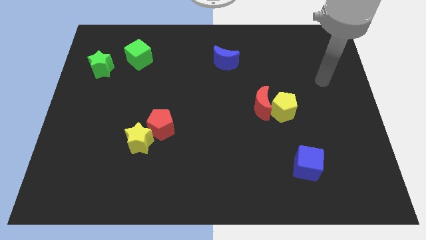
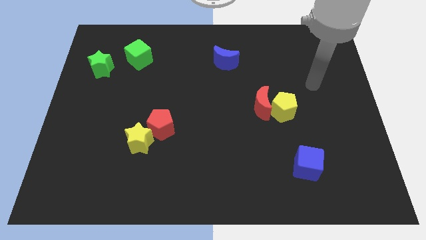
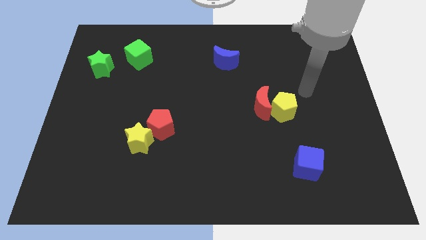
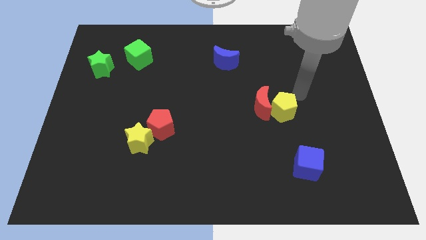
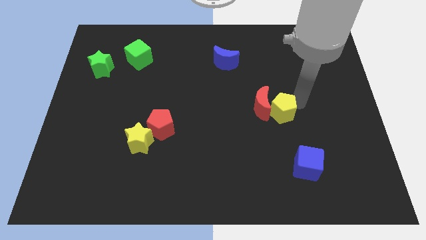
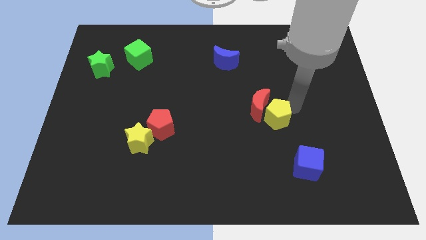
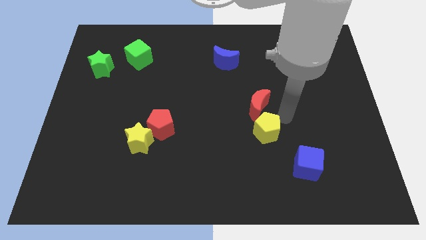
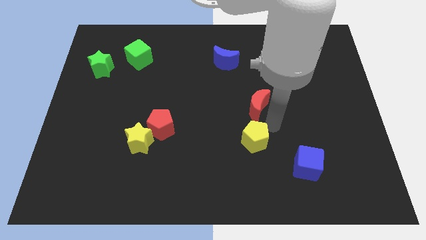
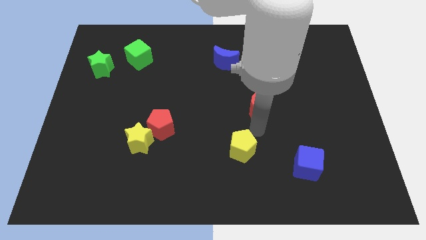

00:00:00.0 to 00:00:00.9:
move the red moon away from the yellow pentagon

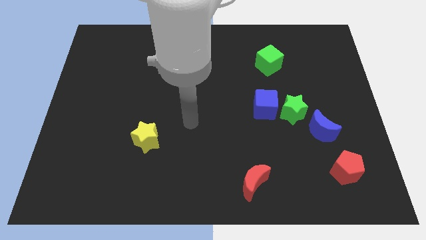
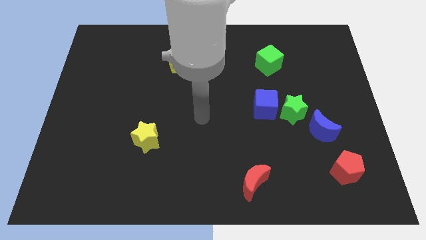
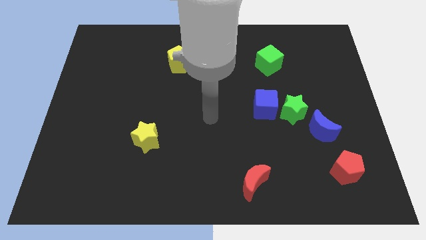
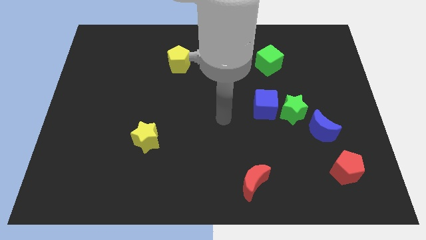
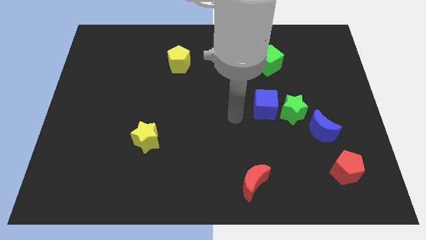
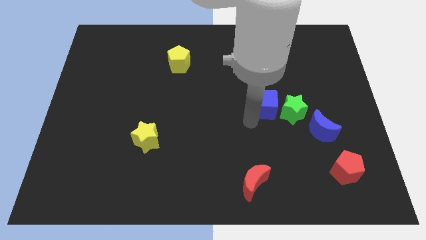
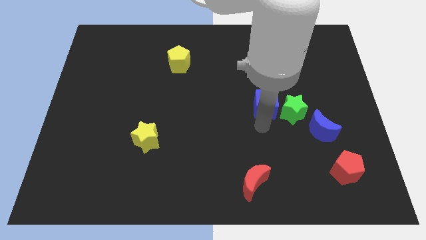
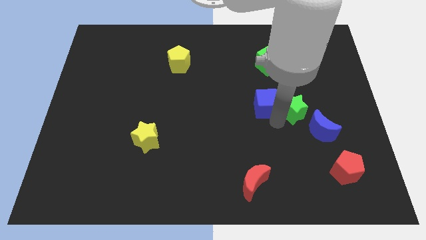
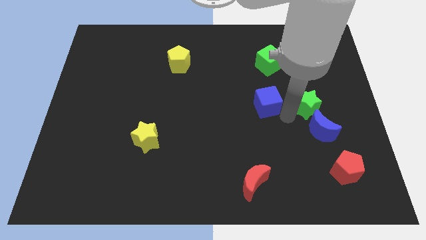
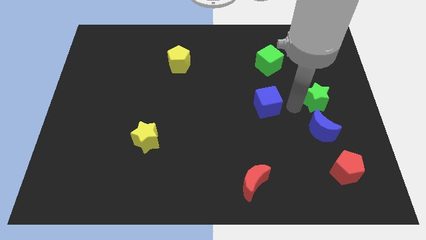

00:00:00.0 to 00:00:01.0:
move the blue cube away from the green star

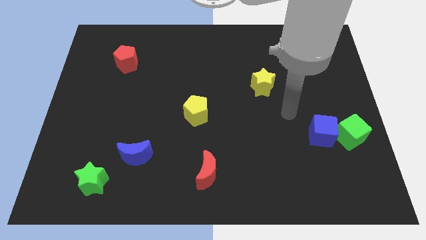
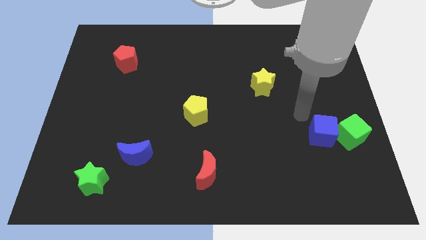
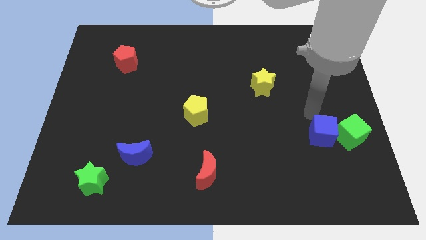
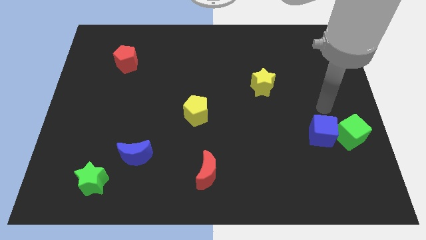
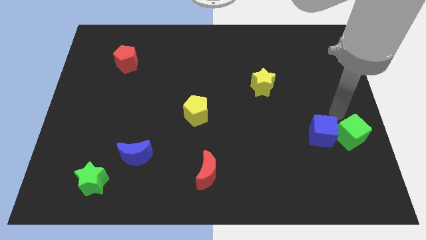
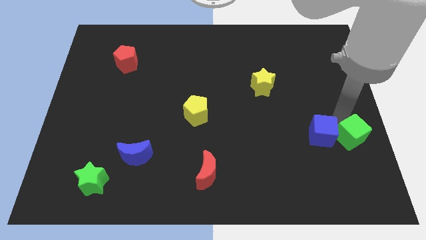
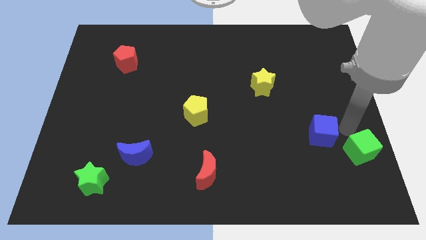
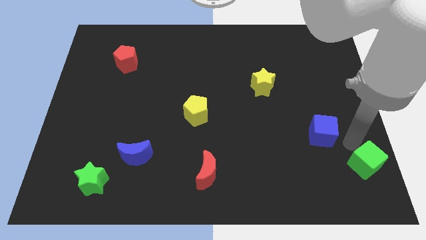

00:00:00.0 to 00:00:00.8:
separate the blue cube from the green cube

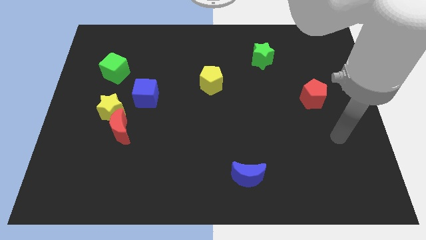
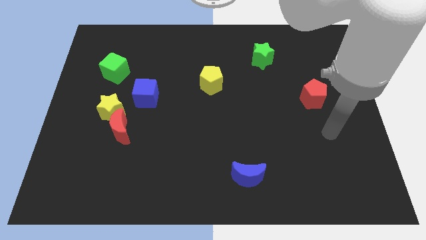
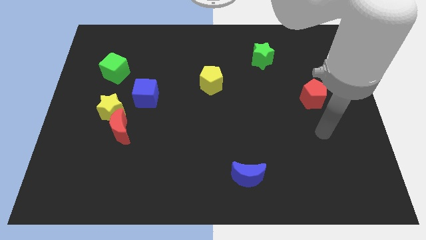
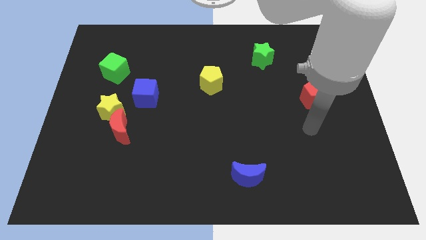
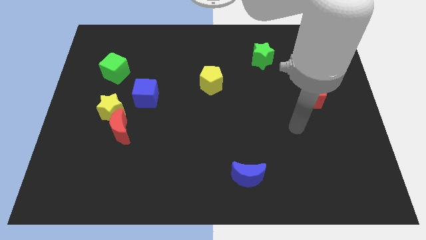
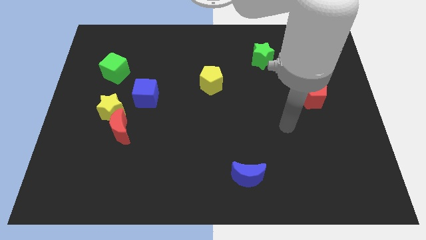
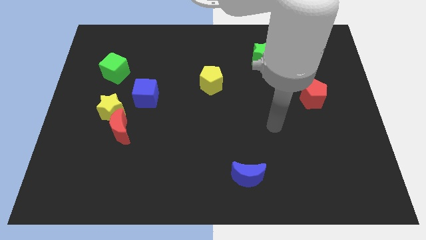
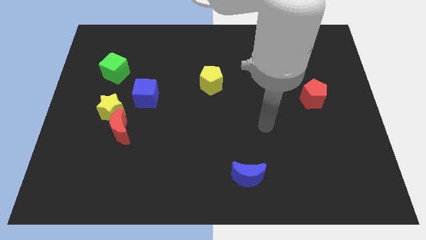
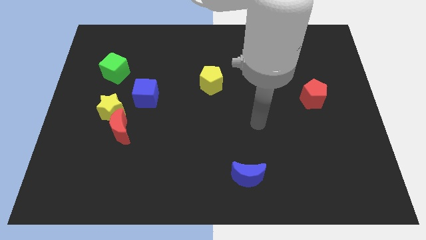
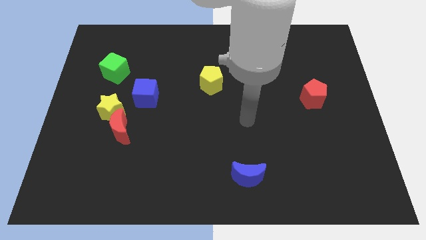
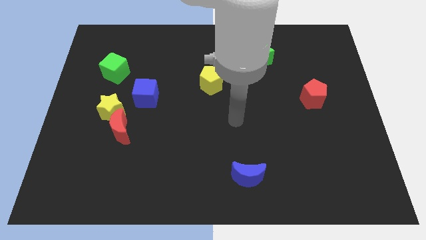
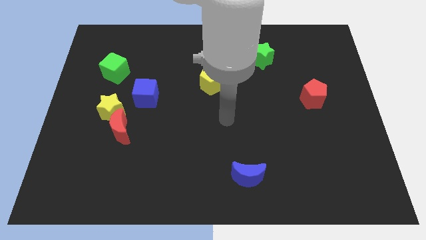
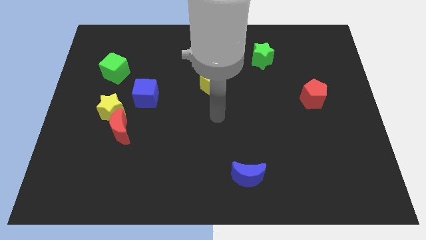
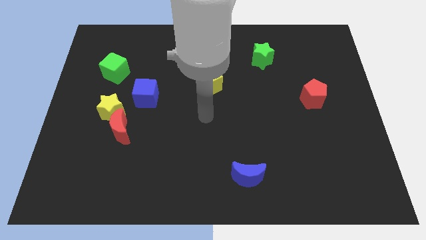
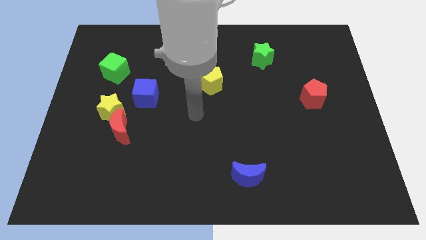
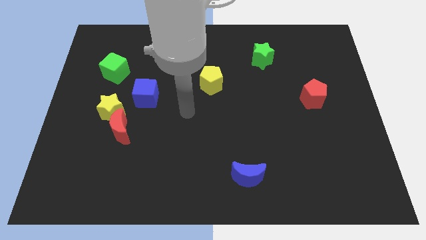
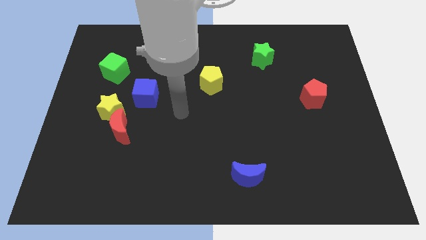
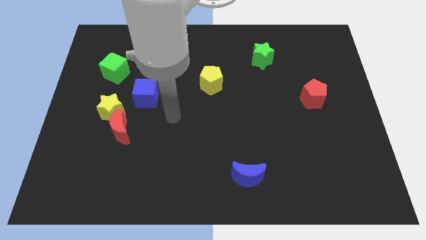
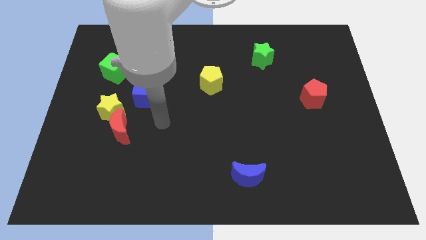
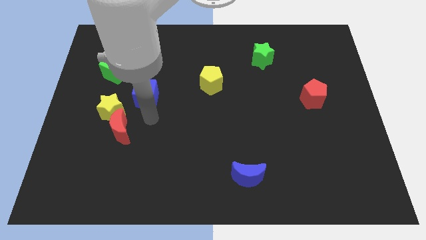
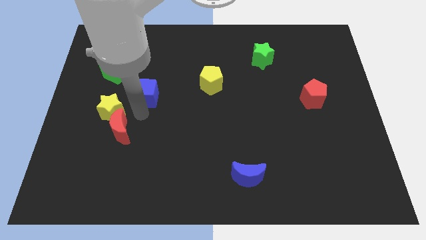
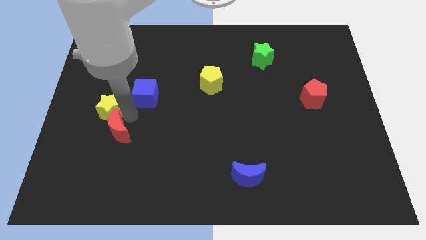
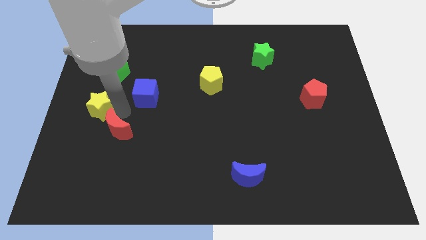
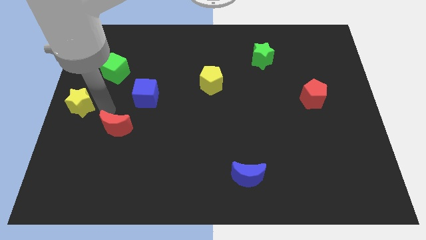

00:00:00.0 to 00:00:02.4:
move the red moon away from the yellow star

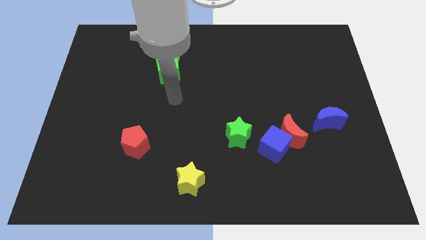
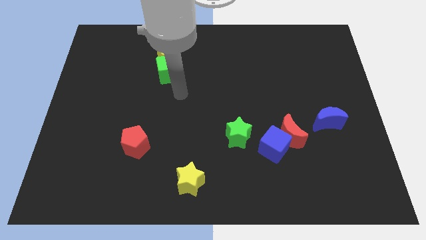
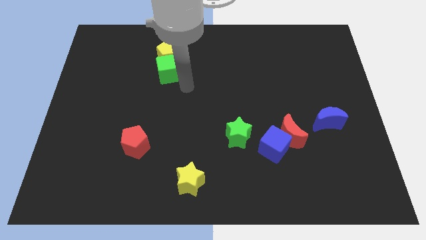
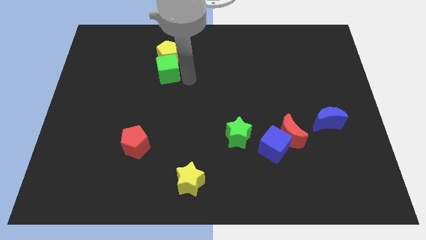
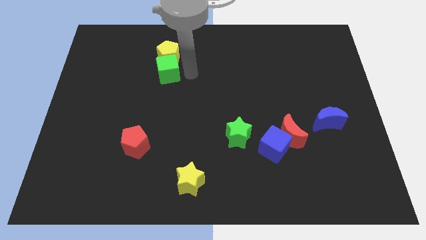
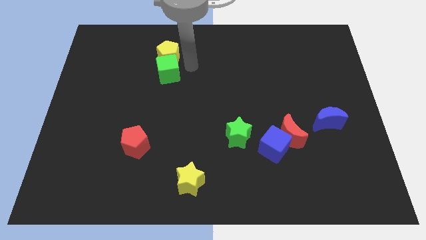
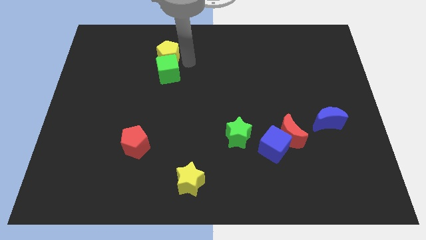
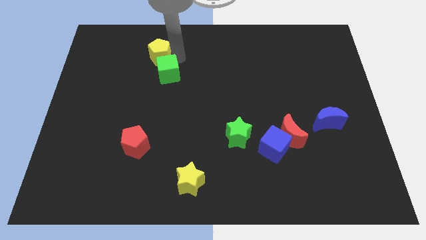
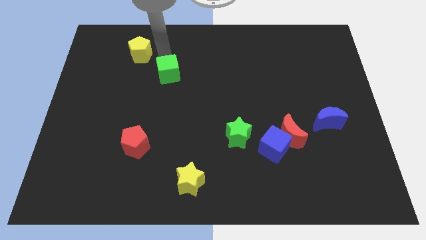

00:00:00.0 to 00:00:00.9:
pull the green cube apart from the yellow pentagon

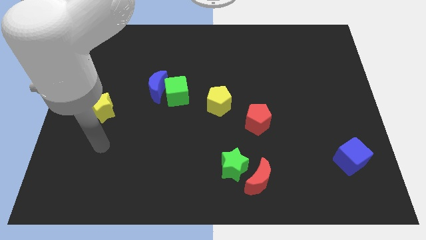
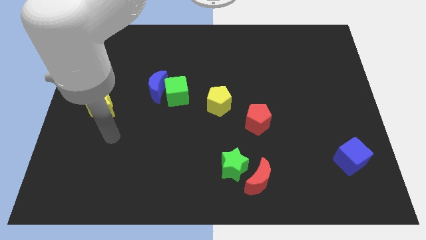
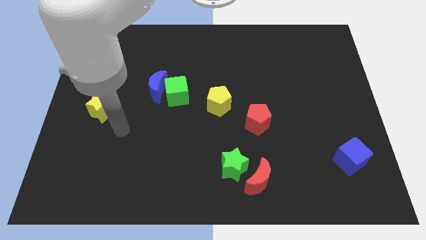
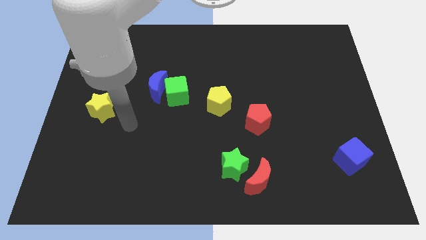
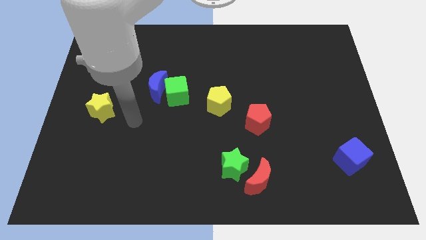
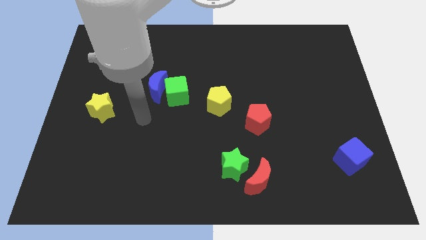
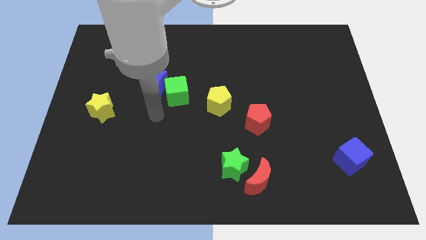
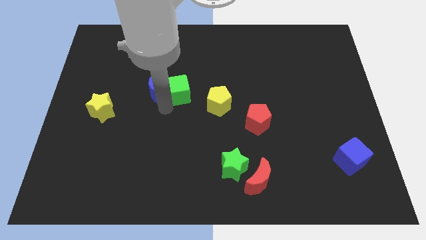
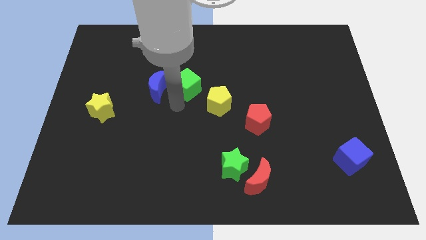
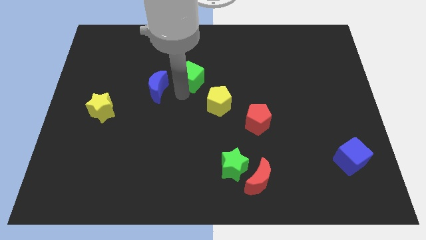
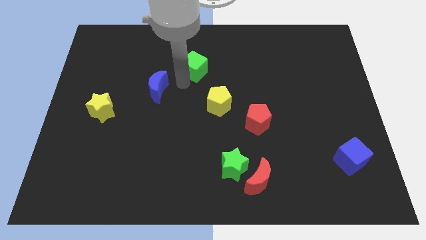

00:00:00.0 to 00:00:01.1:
separate the blue moon from the green cube

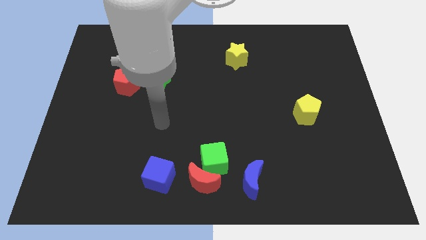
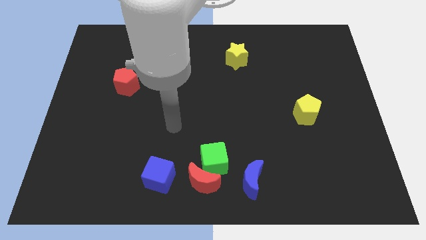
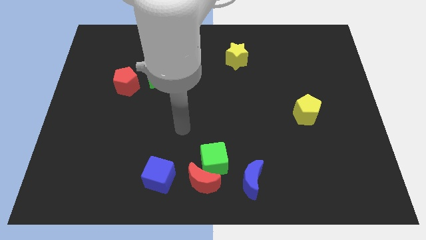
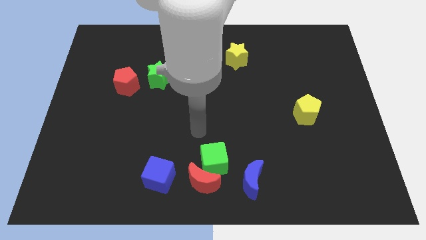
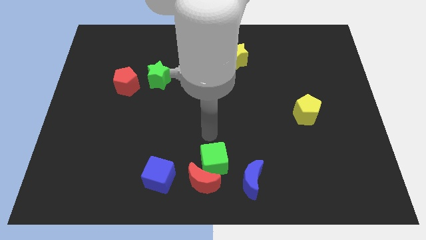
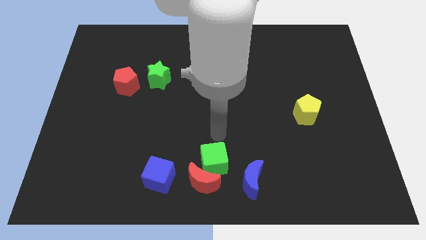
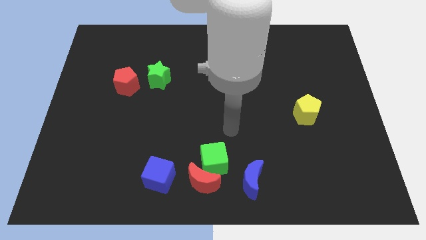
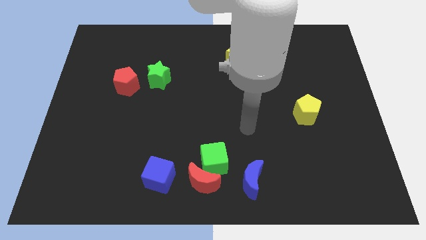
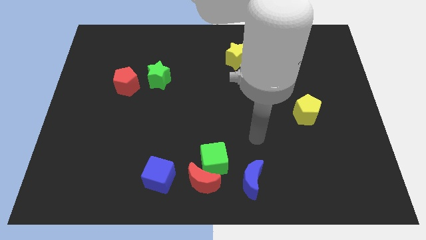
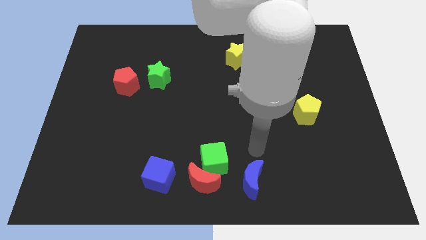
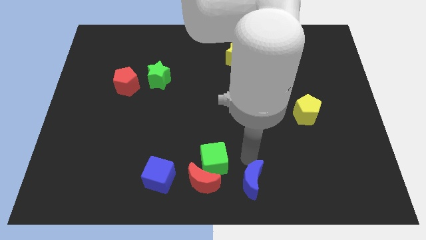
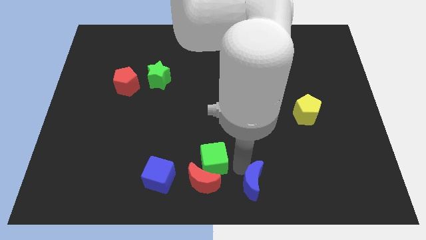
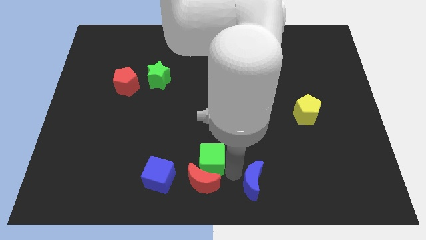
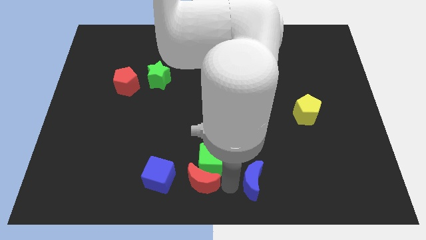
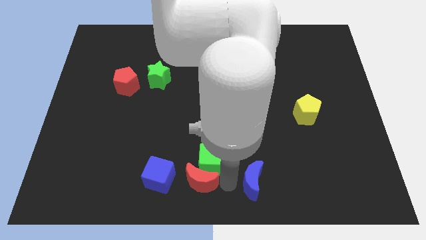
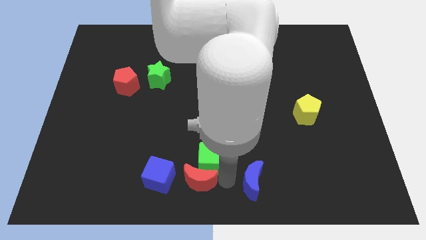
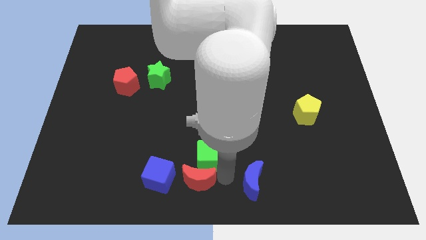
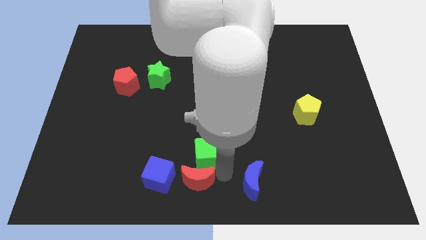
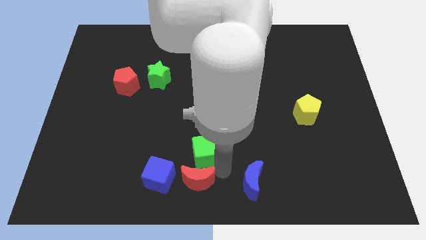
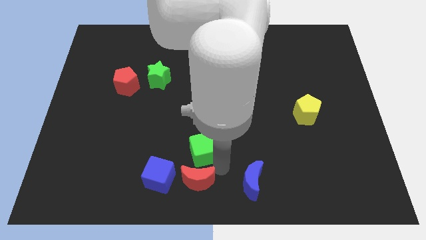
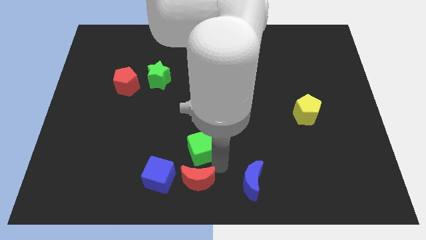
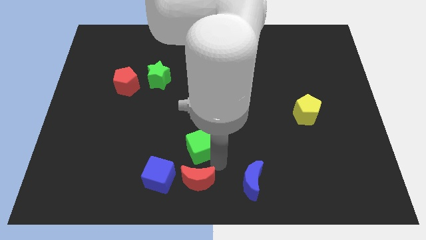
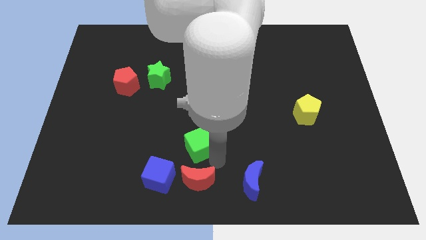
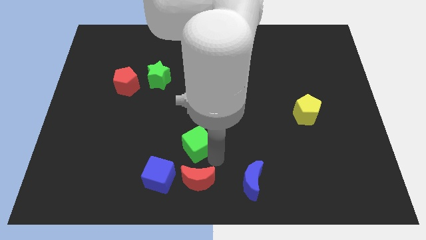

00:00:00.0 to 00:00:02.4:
pull the green cube apart from the red moon and blue moon
